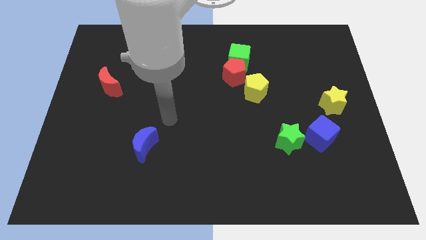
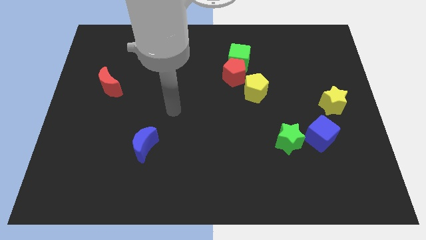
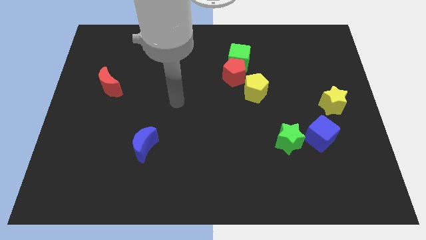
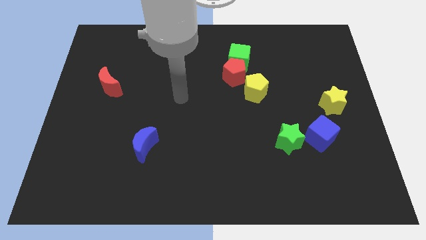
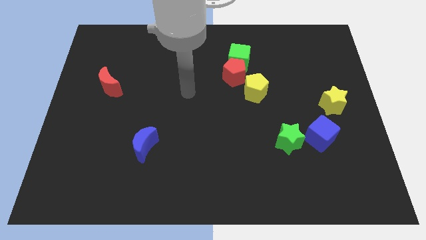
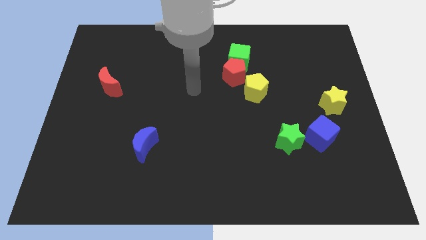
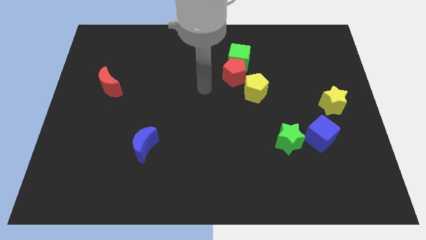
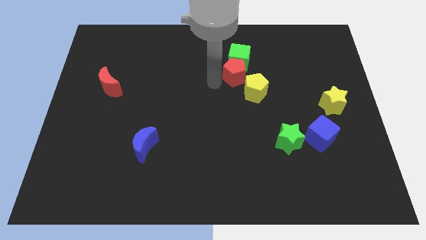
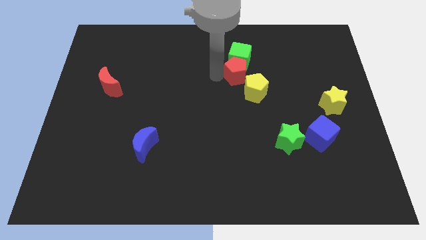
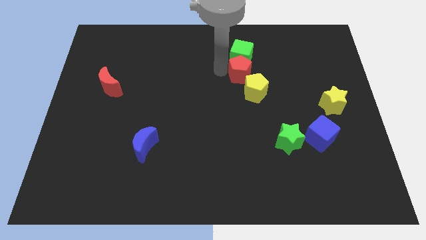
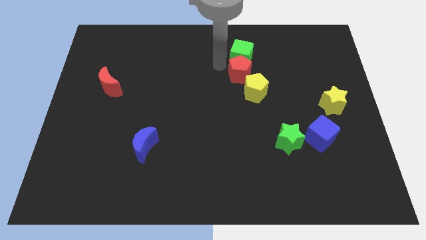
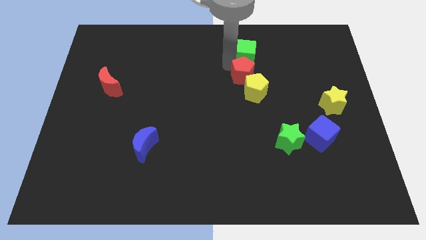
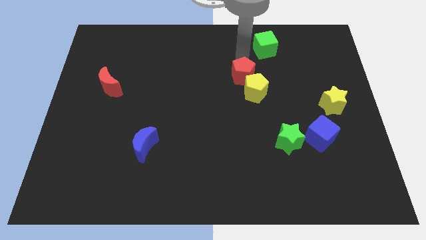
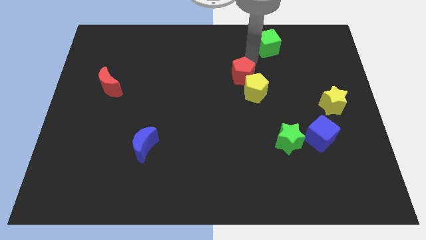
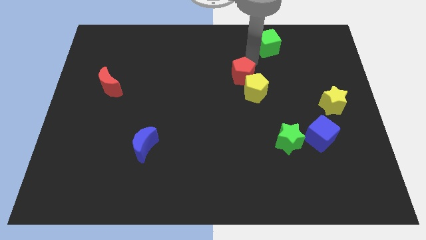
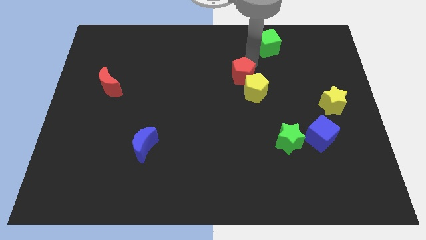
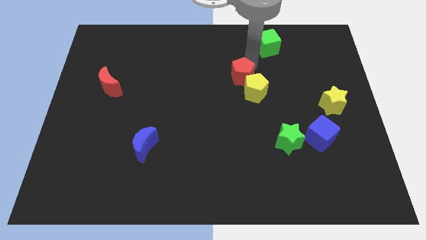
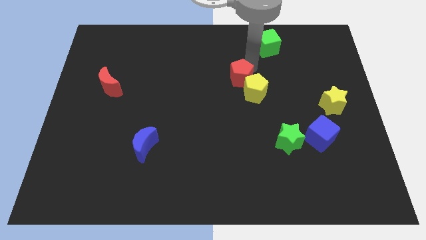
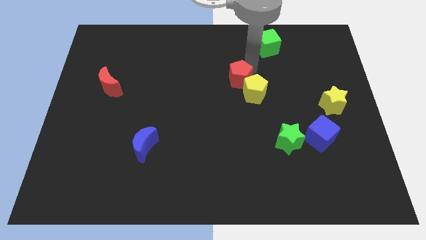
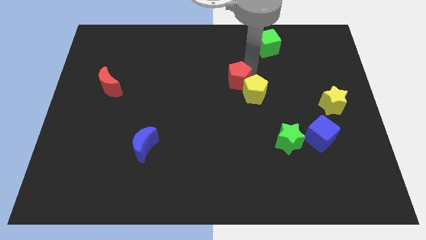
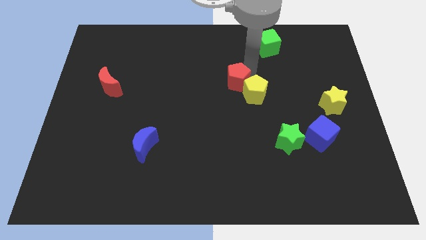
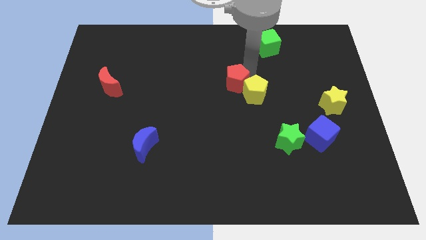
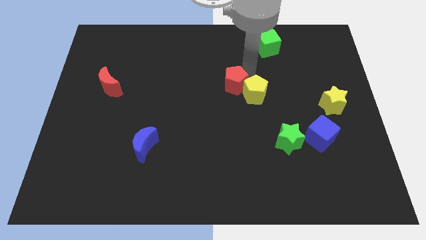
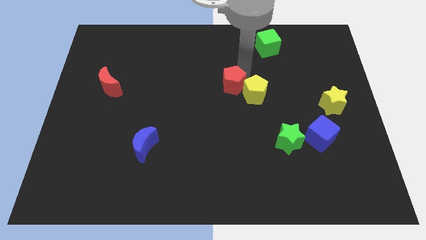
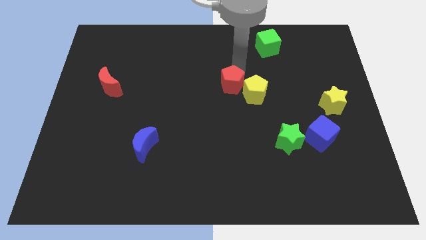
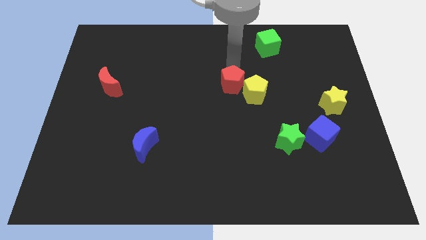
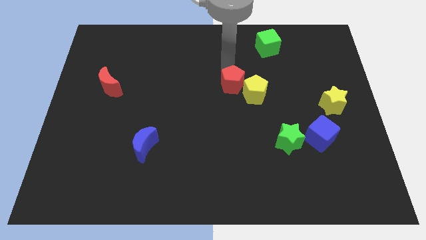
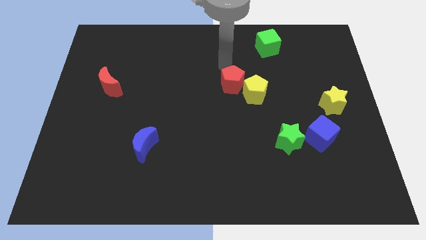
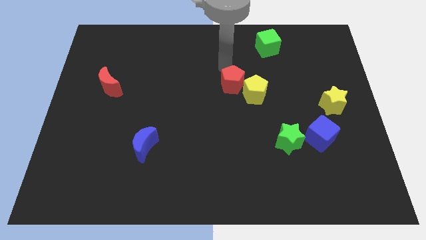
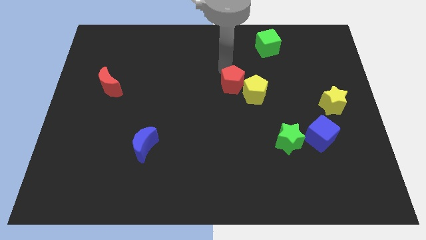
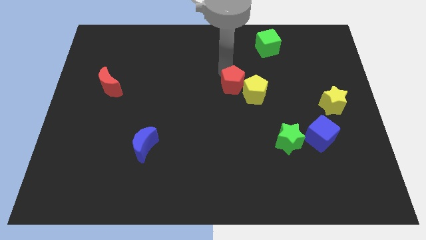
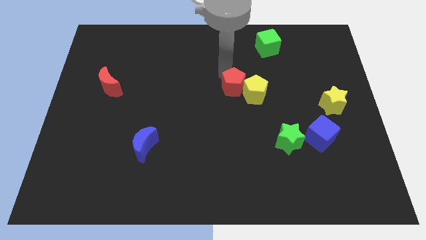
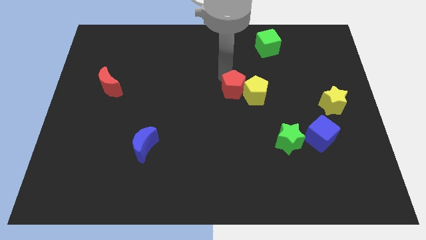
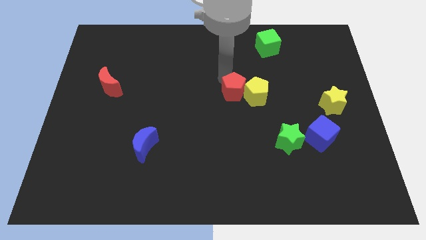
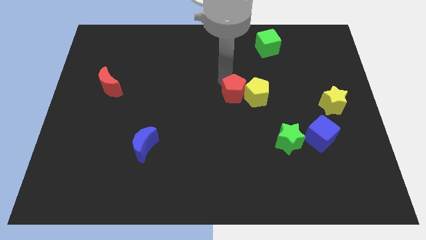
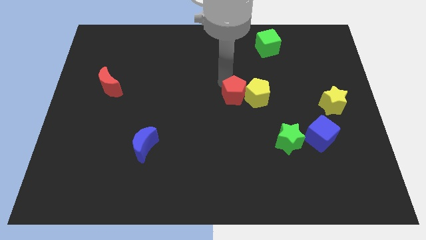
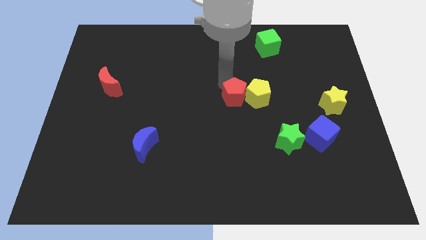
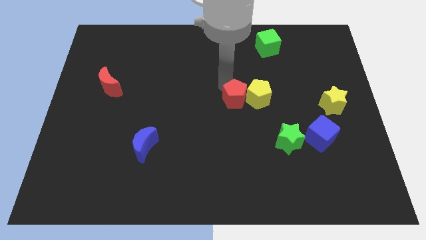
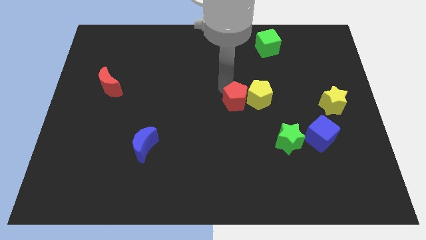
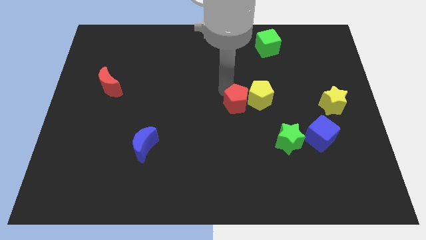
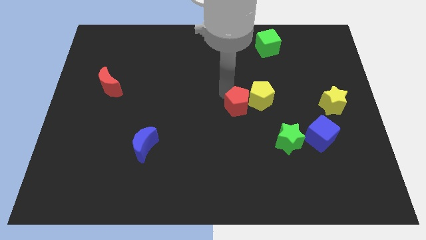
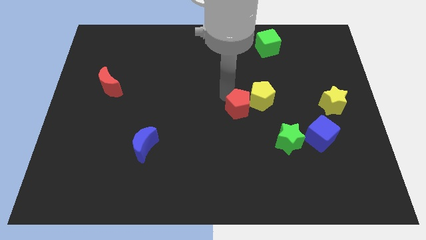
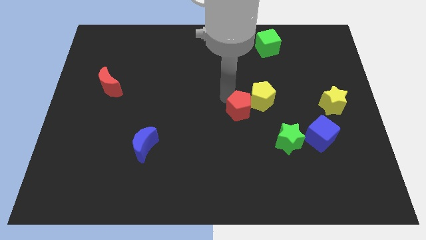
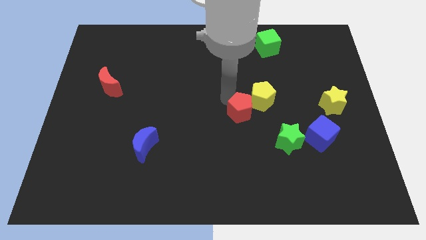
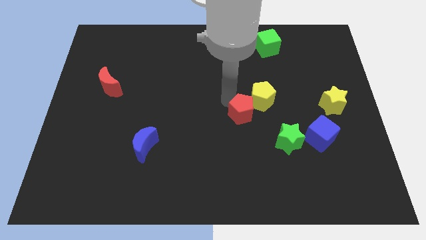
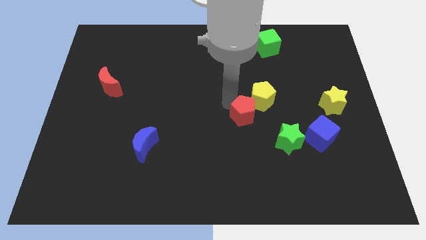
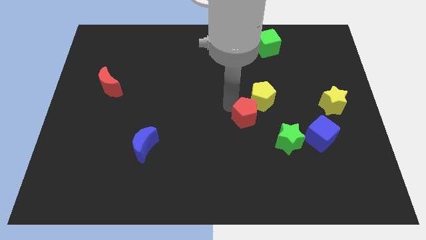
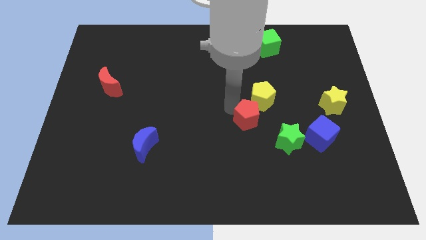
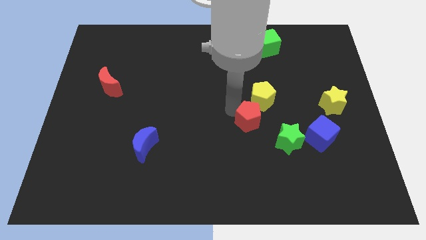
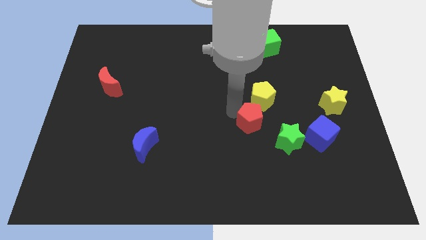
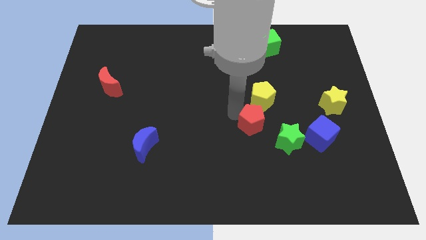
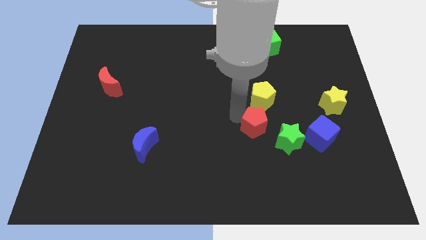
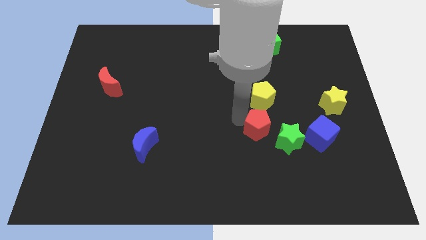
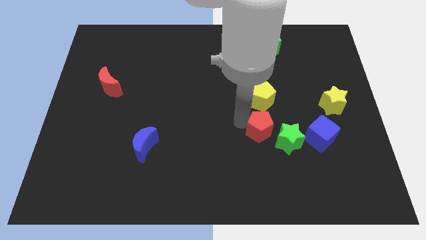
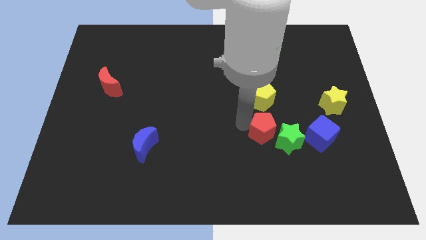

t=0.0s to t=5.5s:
slide the red pentagon towards the green star

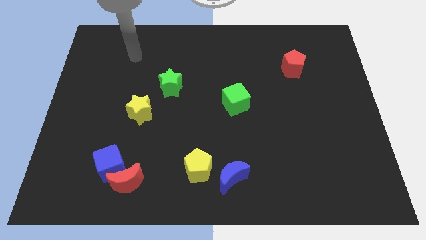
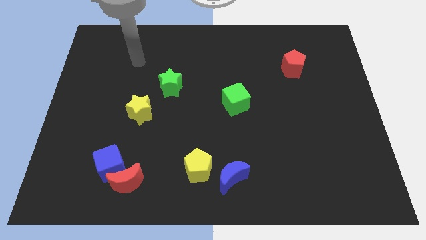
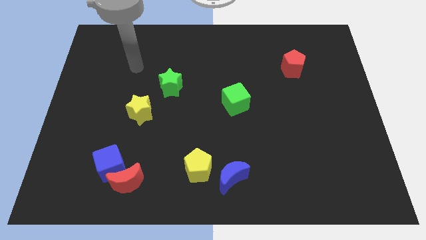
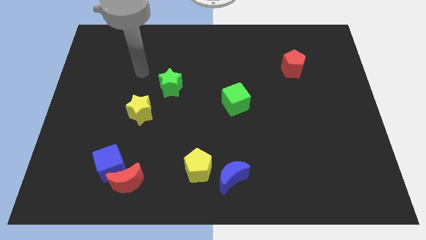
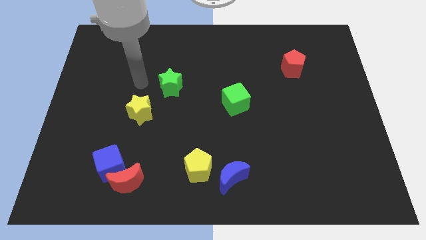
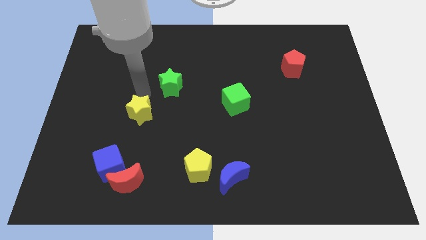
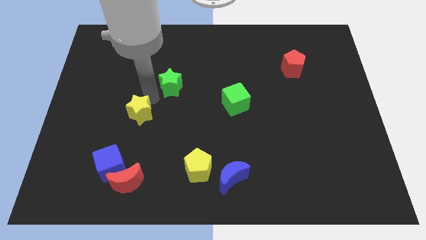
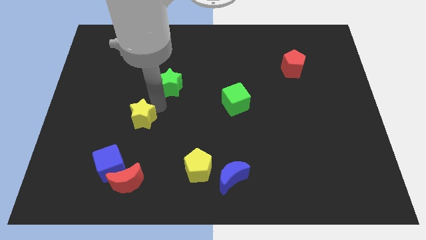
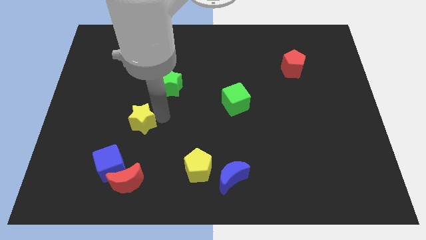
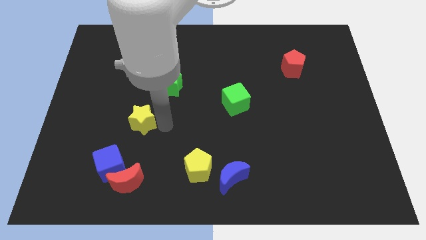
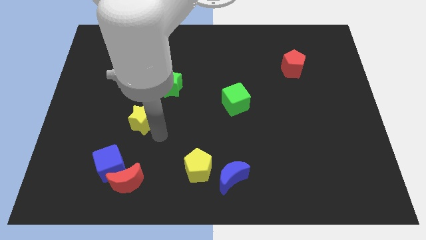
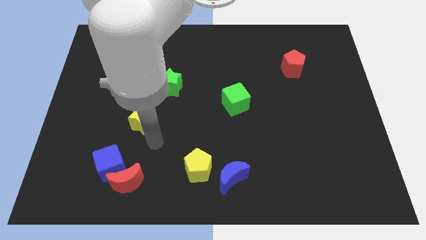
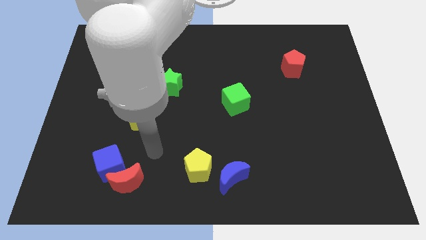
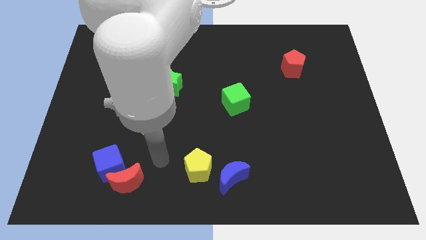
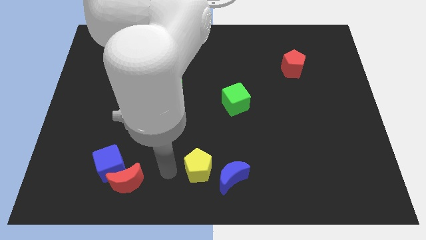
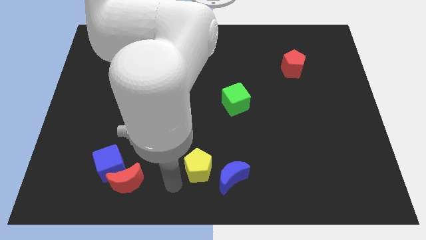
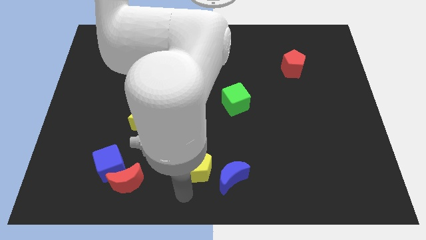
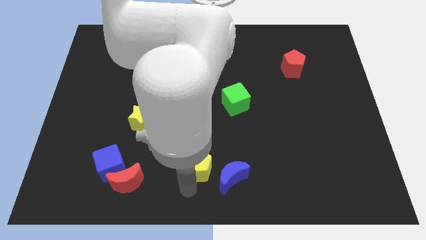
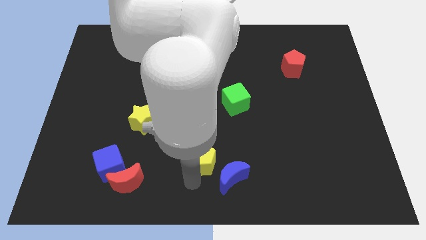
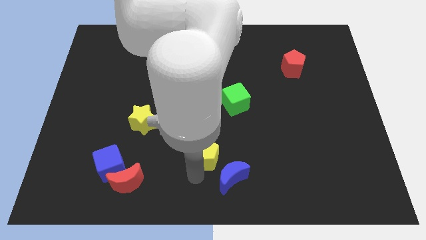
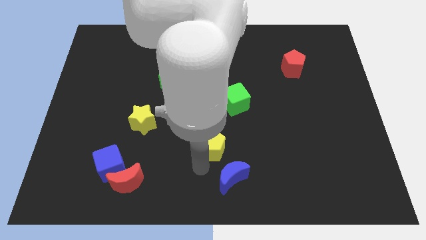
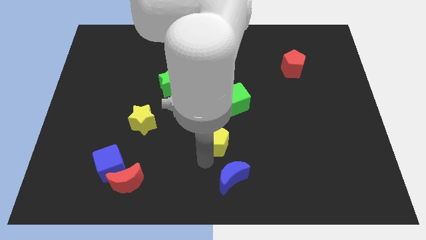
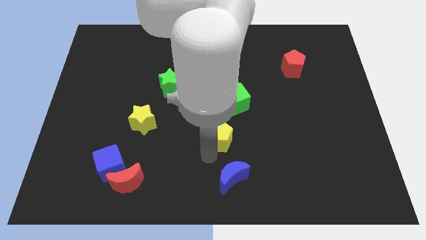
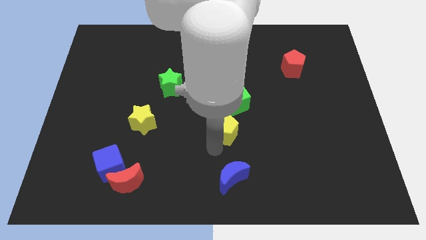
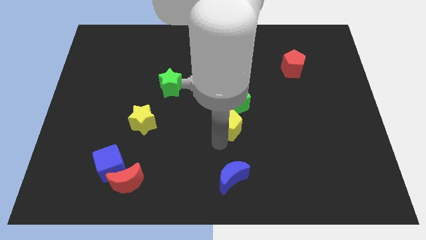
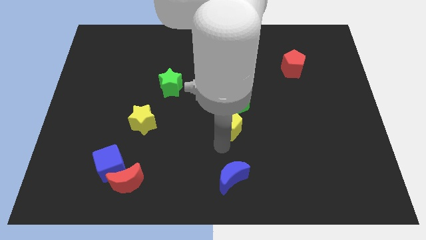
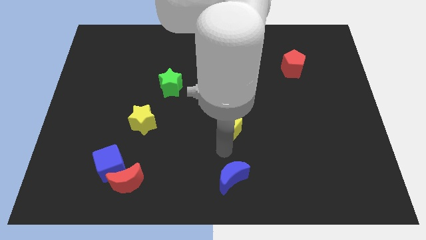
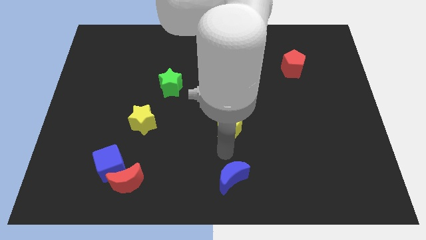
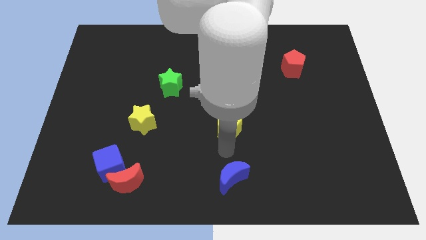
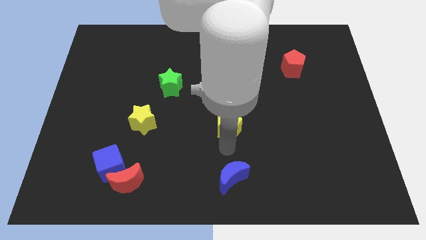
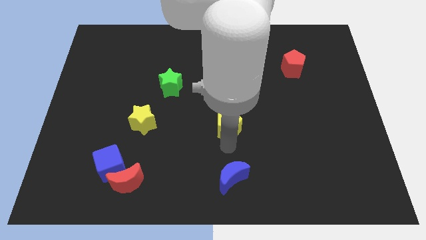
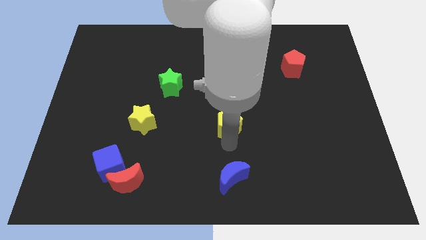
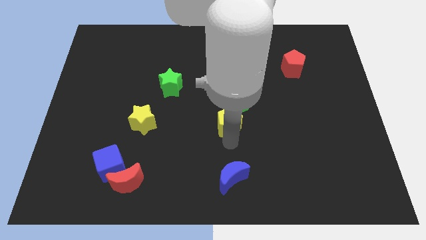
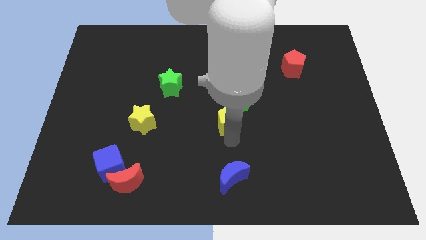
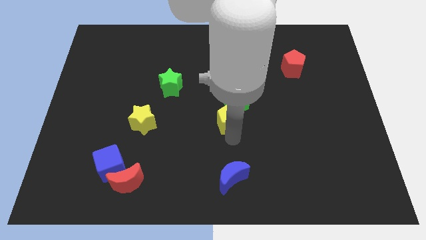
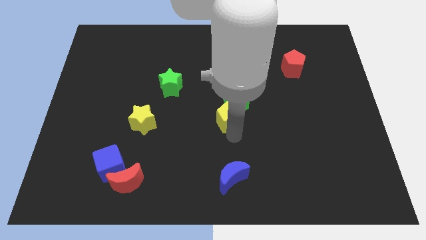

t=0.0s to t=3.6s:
slide the yellow pentagon towards the green cube
